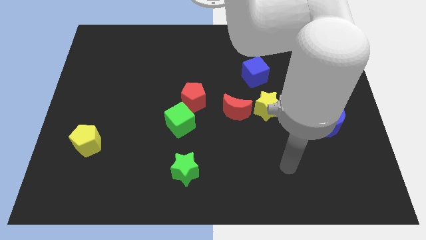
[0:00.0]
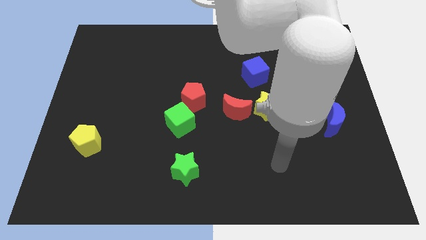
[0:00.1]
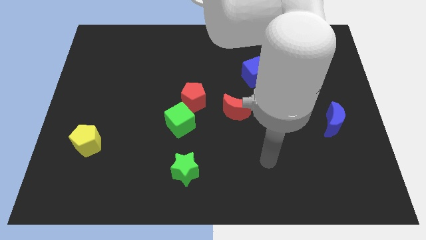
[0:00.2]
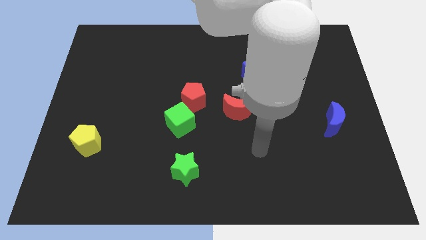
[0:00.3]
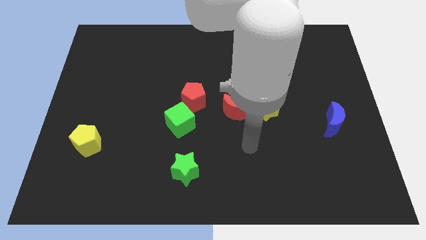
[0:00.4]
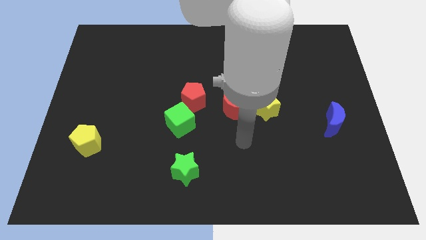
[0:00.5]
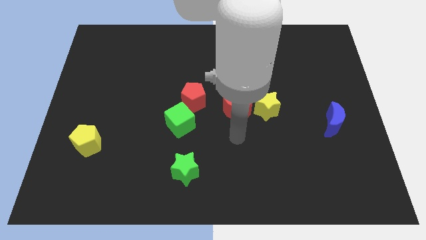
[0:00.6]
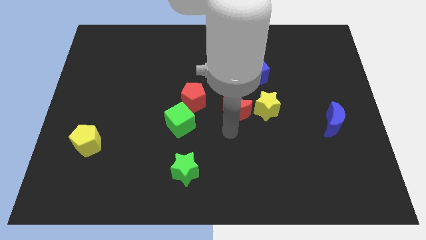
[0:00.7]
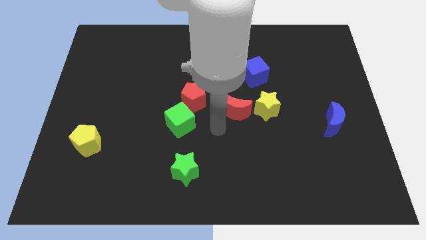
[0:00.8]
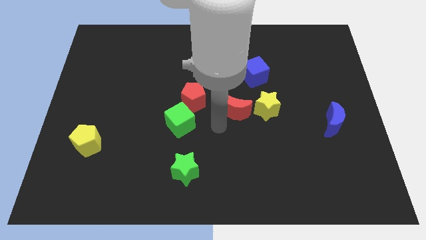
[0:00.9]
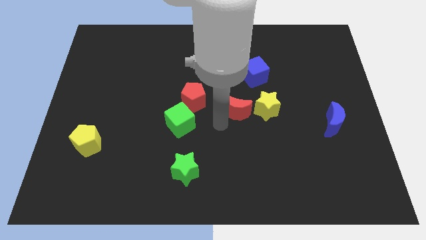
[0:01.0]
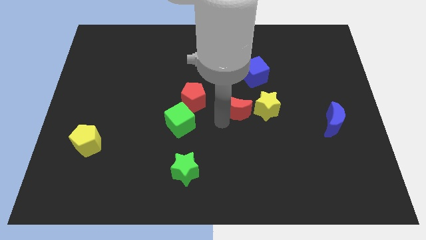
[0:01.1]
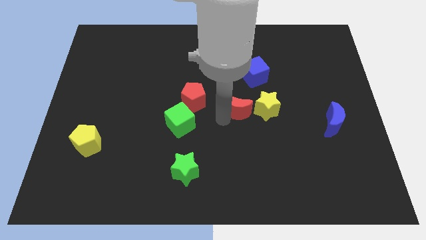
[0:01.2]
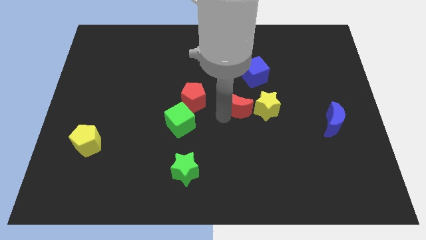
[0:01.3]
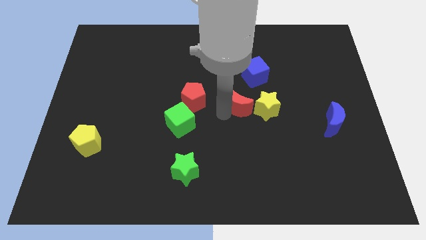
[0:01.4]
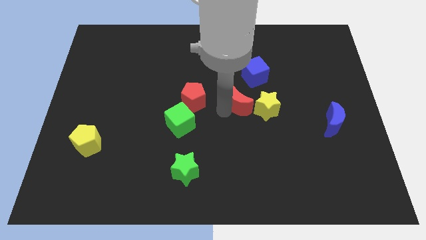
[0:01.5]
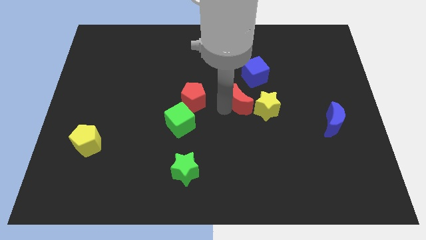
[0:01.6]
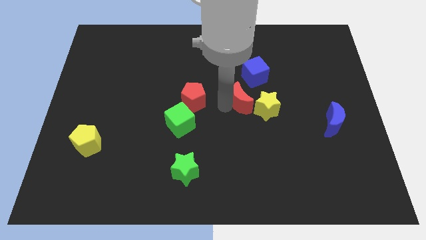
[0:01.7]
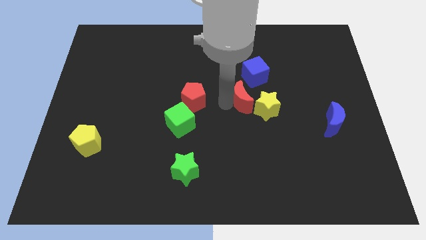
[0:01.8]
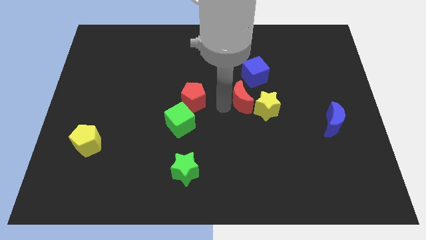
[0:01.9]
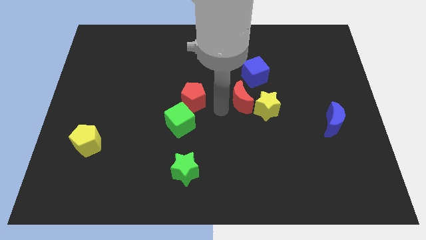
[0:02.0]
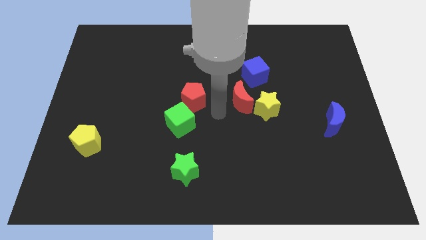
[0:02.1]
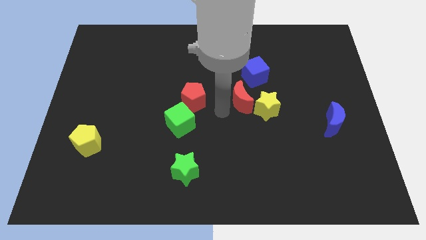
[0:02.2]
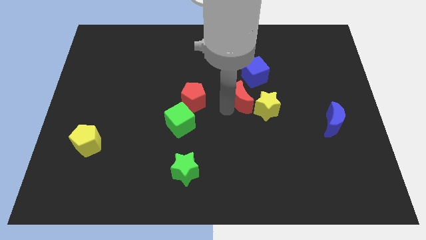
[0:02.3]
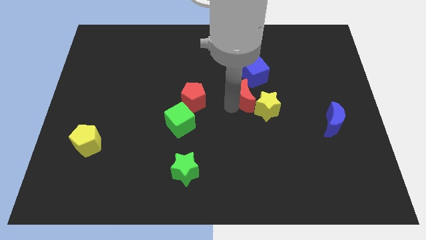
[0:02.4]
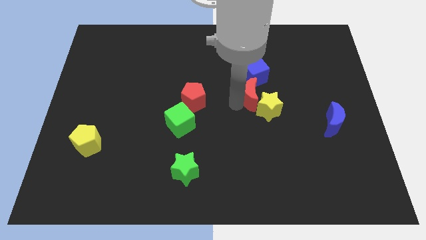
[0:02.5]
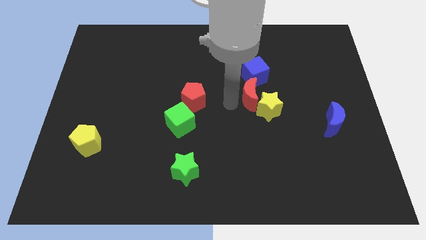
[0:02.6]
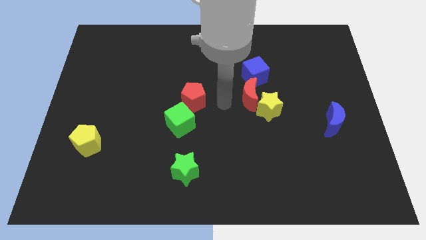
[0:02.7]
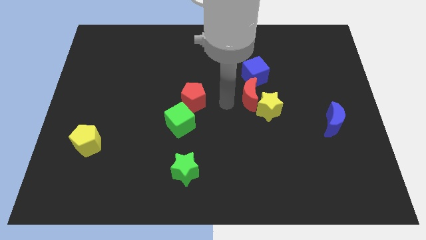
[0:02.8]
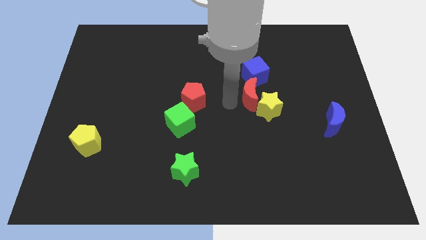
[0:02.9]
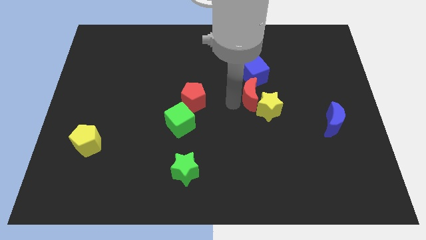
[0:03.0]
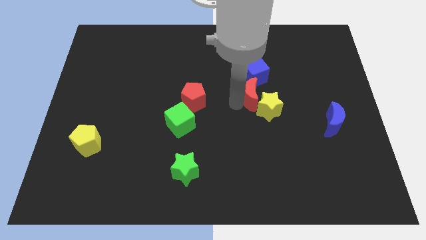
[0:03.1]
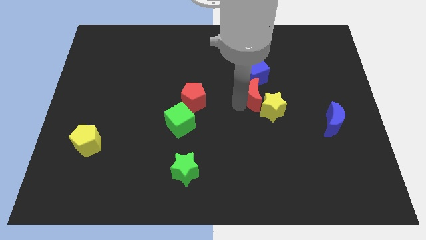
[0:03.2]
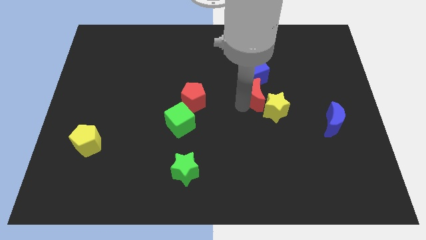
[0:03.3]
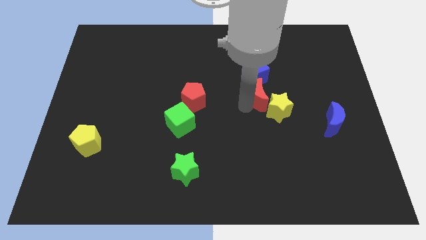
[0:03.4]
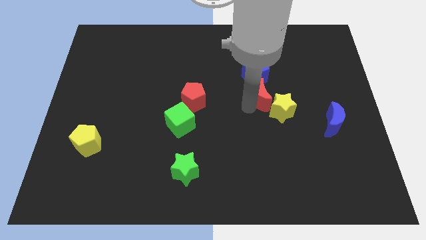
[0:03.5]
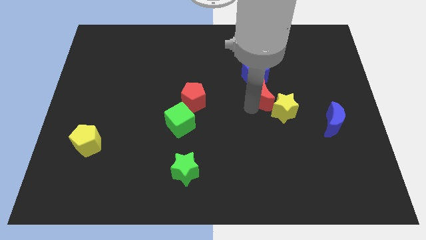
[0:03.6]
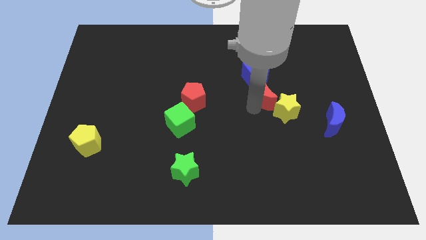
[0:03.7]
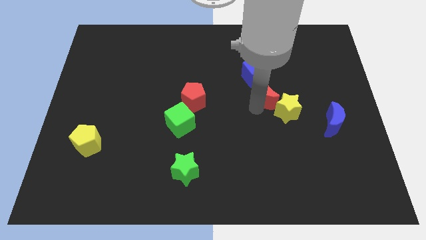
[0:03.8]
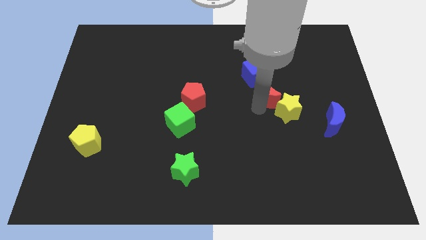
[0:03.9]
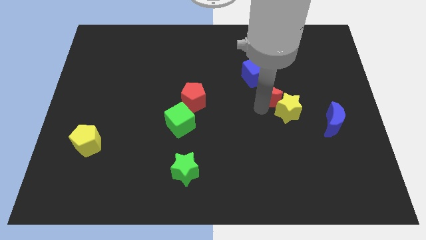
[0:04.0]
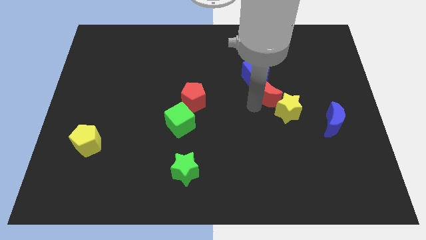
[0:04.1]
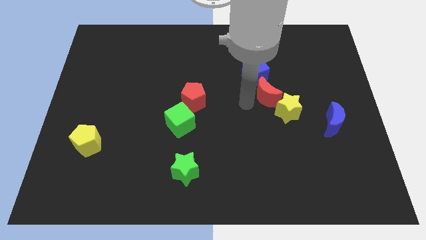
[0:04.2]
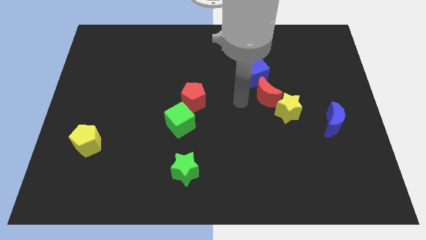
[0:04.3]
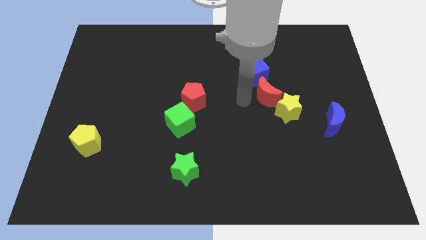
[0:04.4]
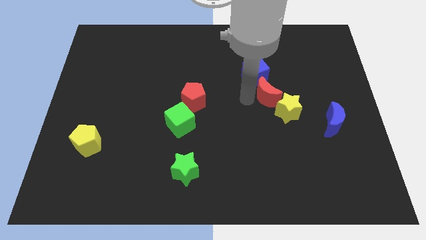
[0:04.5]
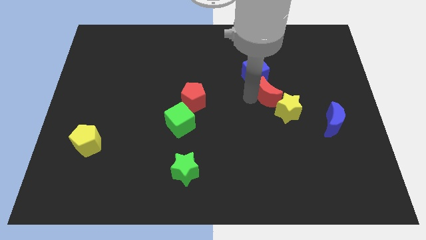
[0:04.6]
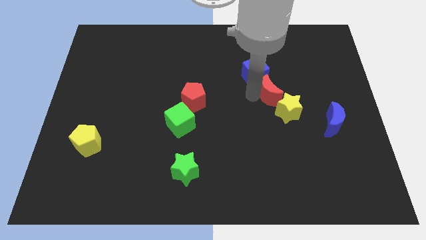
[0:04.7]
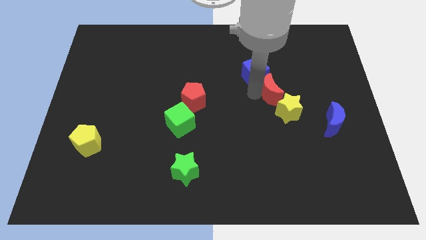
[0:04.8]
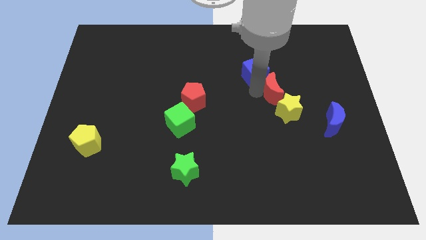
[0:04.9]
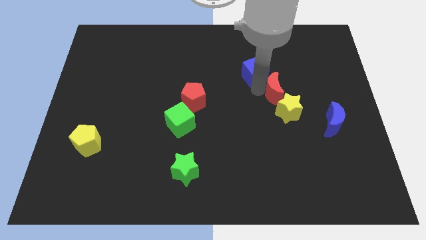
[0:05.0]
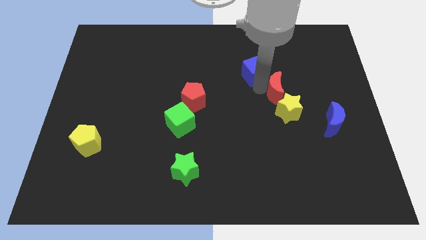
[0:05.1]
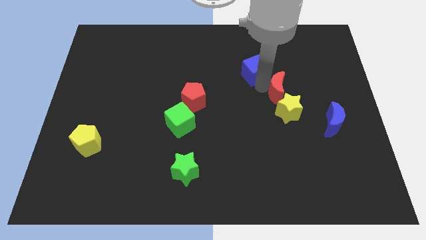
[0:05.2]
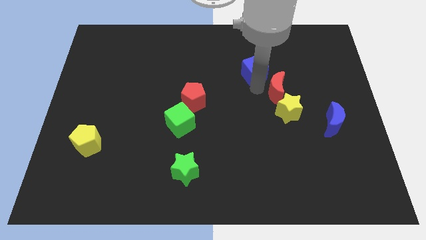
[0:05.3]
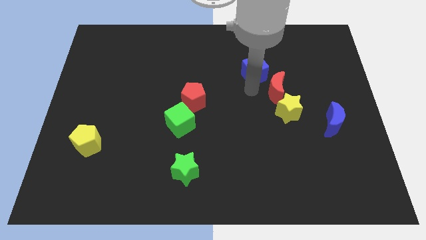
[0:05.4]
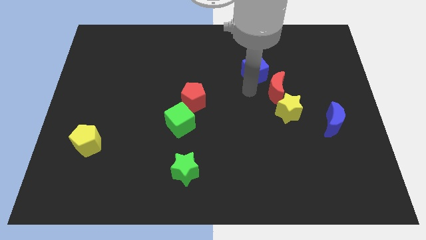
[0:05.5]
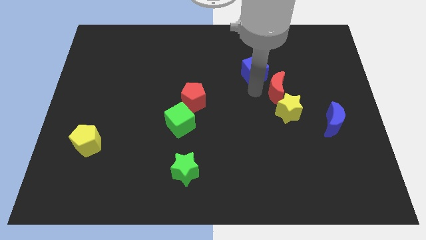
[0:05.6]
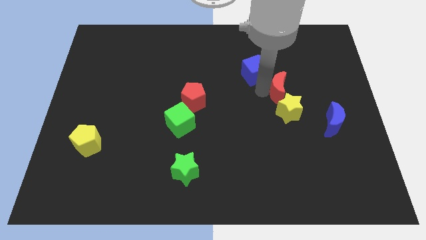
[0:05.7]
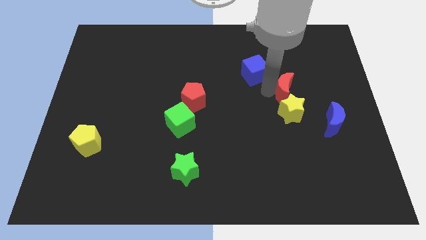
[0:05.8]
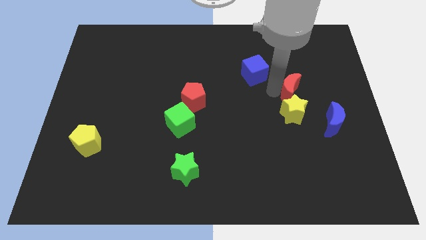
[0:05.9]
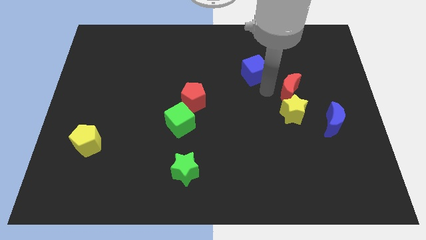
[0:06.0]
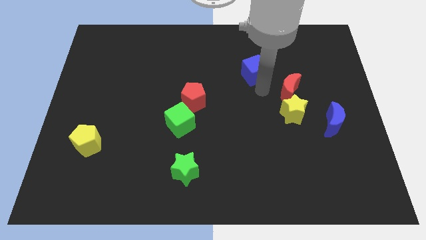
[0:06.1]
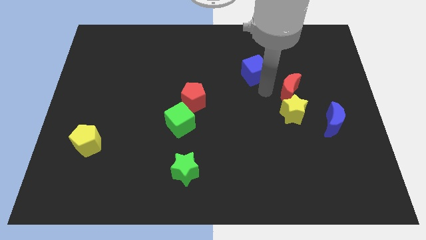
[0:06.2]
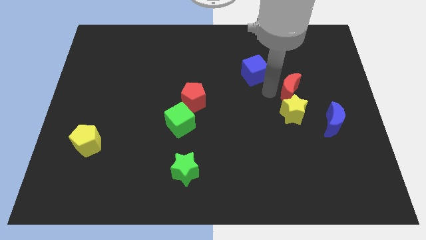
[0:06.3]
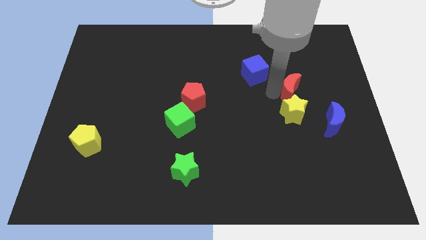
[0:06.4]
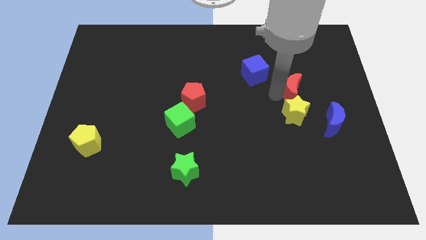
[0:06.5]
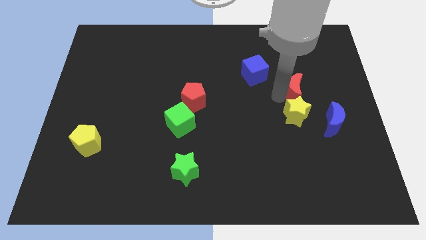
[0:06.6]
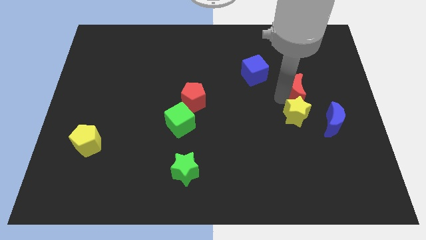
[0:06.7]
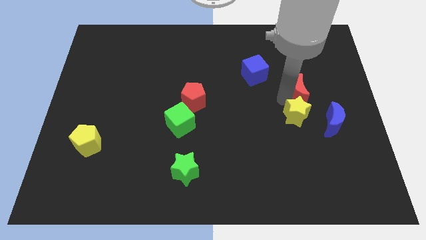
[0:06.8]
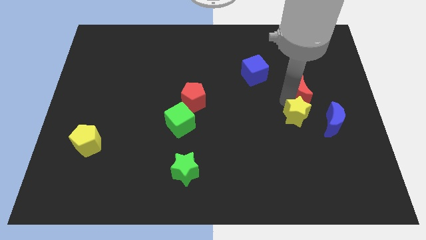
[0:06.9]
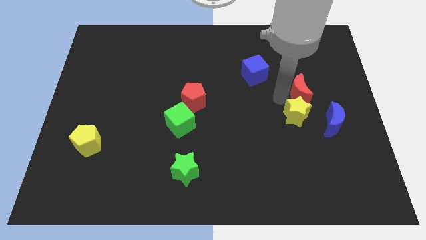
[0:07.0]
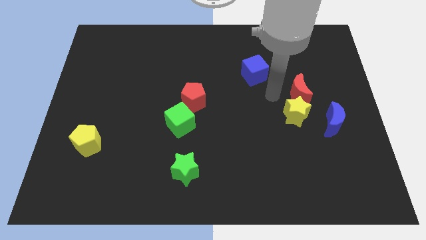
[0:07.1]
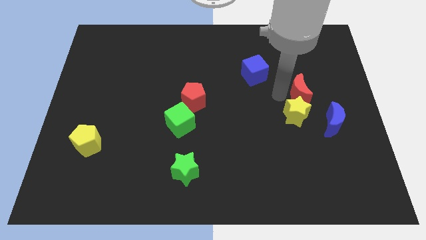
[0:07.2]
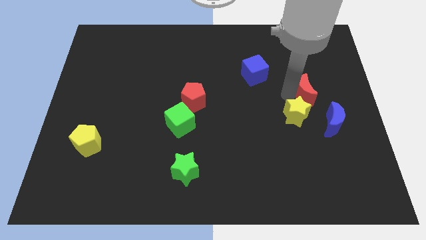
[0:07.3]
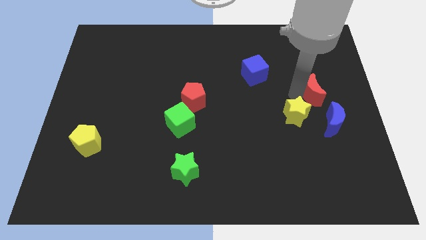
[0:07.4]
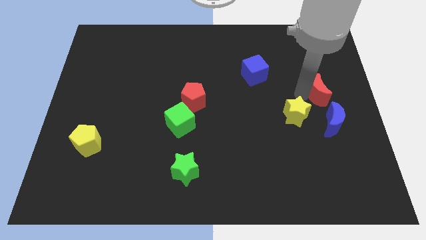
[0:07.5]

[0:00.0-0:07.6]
put the red moon to the right side of the board
